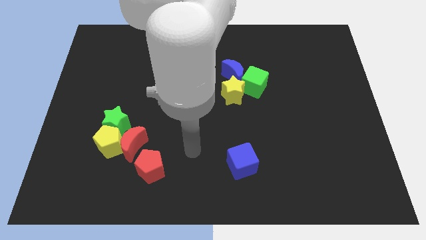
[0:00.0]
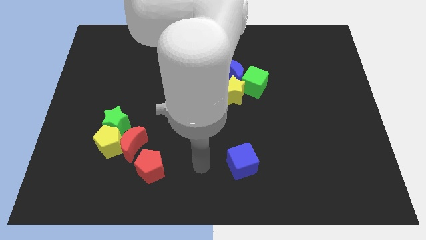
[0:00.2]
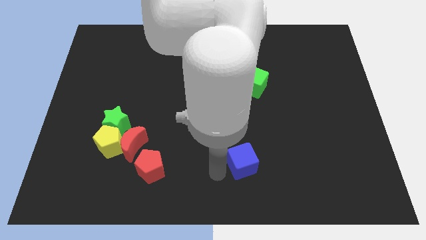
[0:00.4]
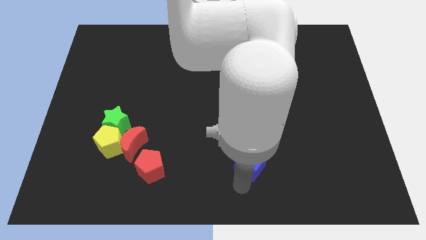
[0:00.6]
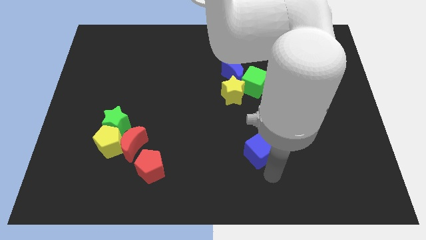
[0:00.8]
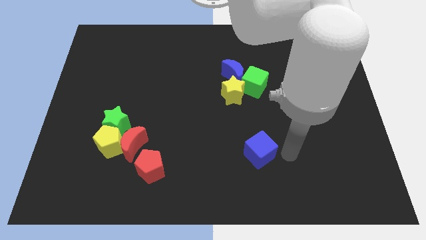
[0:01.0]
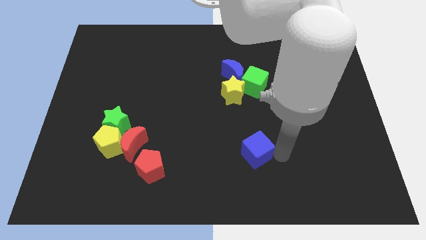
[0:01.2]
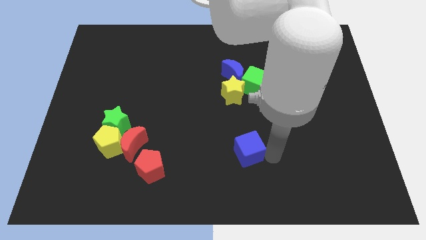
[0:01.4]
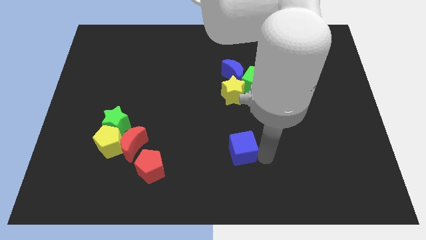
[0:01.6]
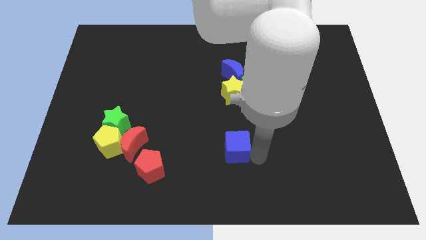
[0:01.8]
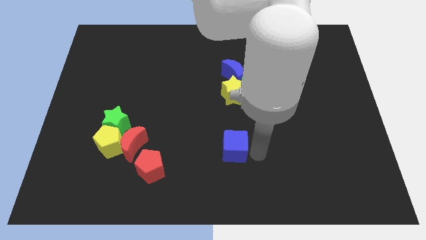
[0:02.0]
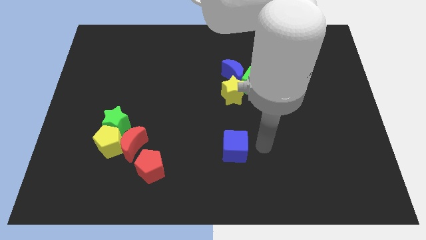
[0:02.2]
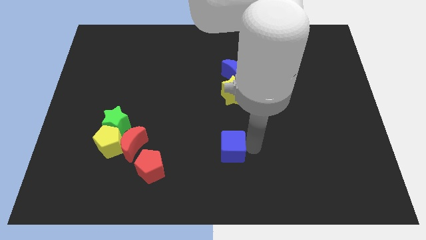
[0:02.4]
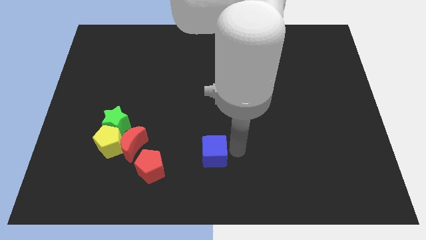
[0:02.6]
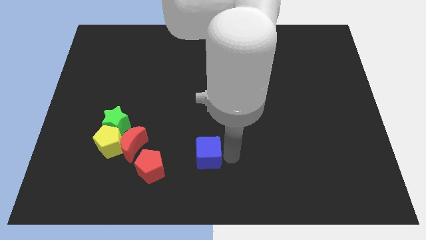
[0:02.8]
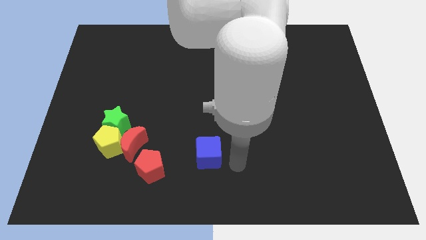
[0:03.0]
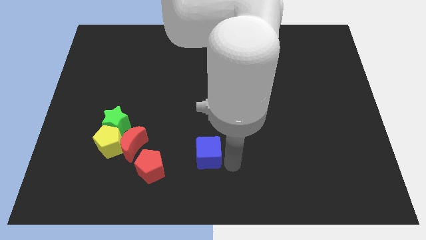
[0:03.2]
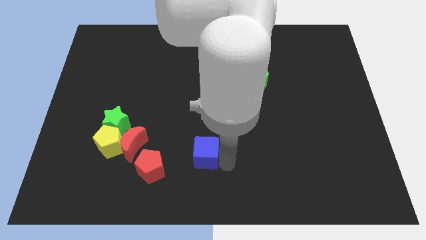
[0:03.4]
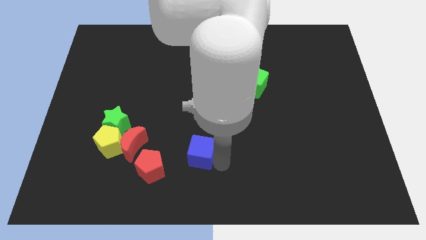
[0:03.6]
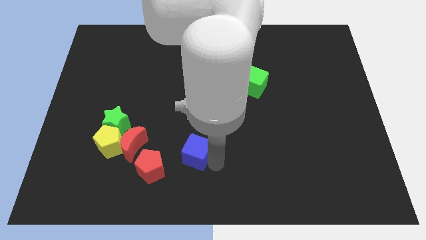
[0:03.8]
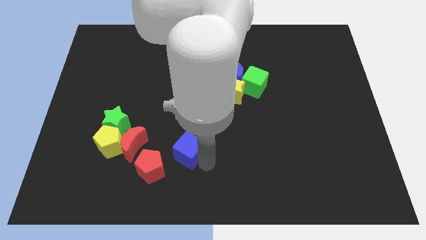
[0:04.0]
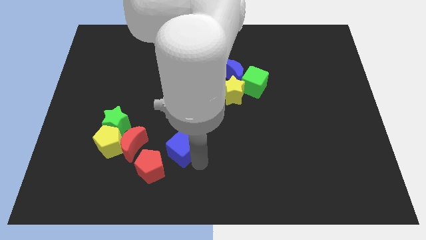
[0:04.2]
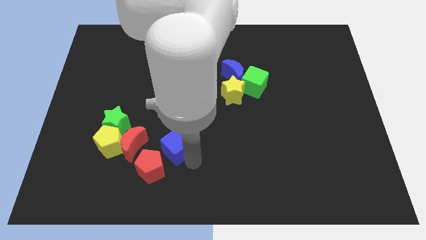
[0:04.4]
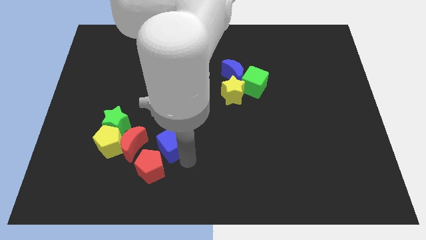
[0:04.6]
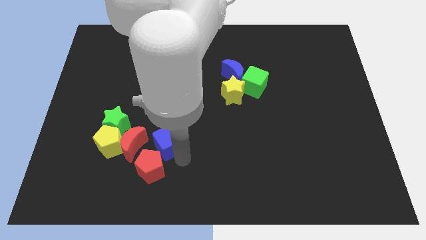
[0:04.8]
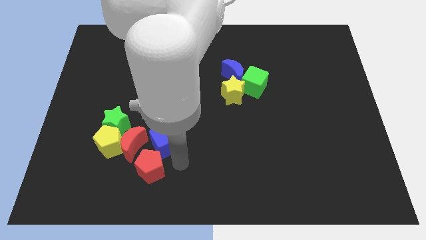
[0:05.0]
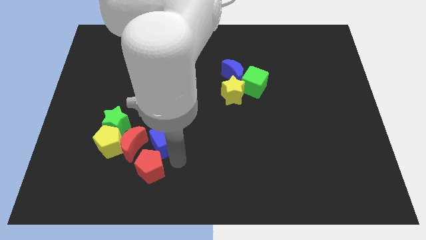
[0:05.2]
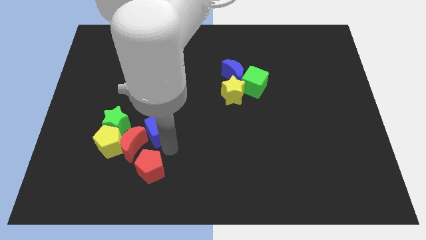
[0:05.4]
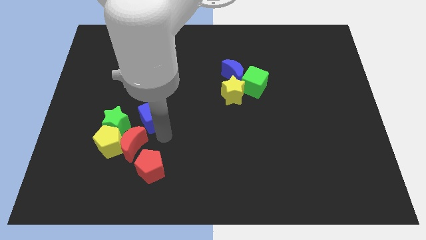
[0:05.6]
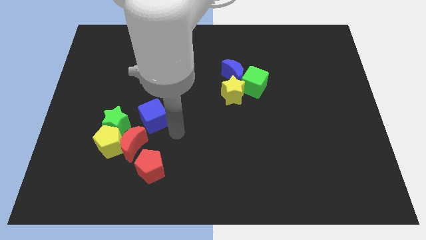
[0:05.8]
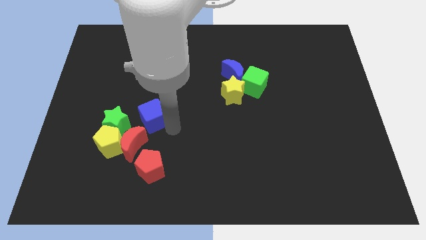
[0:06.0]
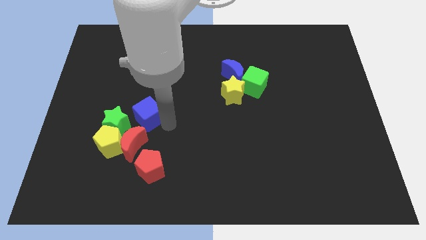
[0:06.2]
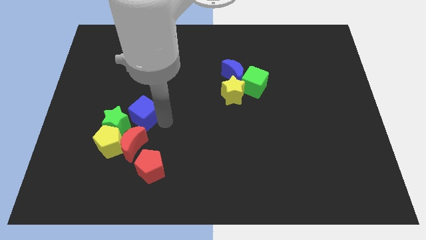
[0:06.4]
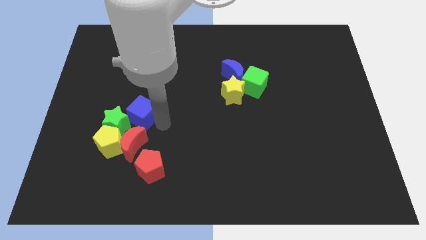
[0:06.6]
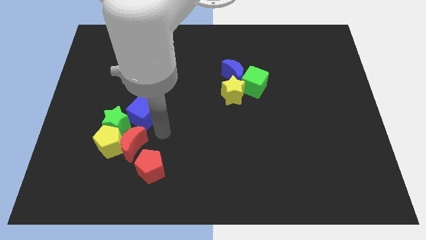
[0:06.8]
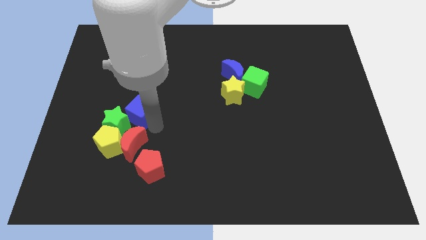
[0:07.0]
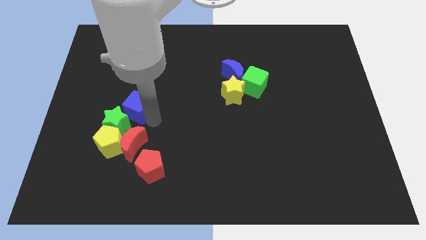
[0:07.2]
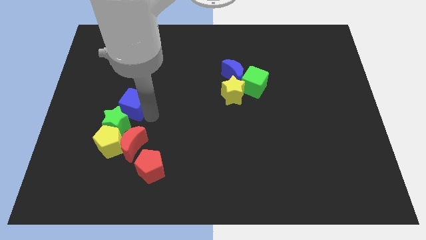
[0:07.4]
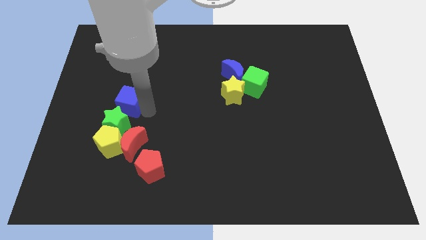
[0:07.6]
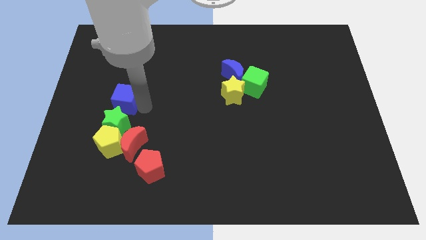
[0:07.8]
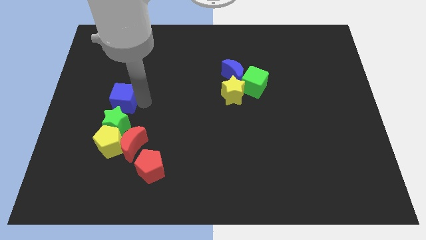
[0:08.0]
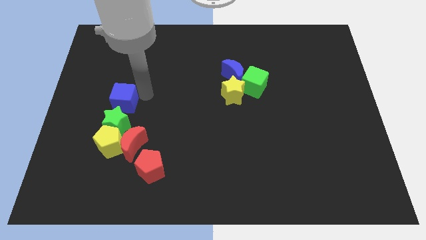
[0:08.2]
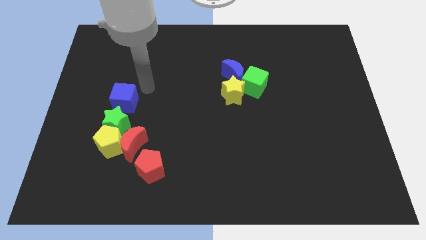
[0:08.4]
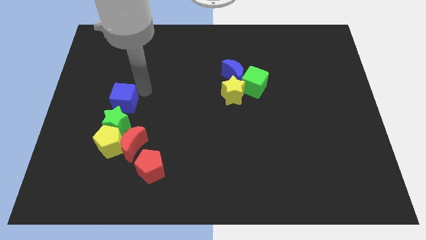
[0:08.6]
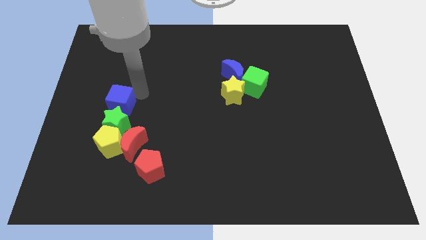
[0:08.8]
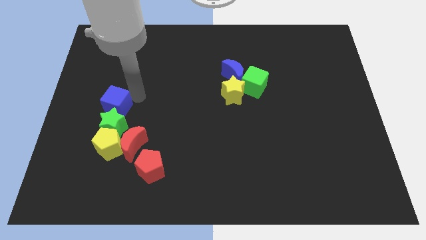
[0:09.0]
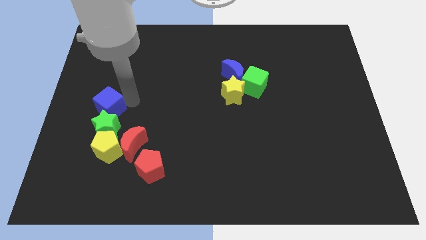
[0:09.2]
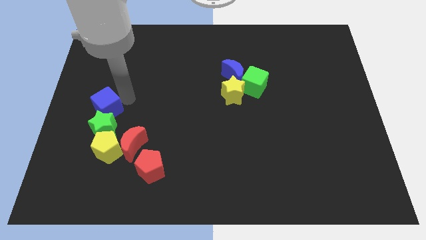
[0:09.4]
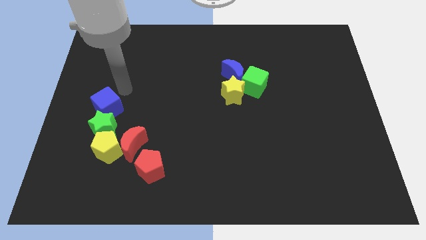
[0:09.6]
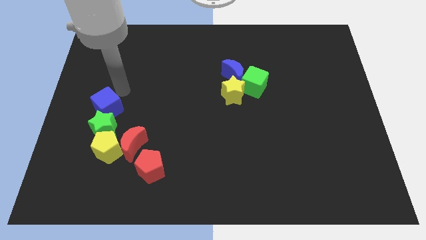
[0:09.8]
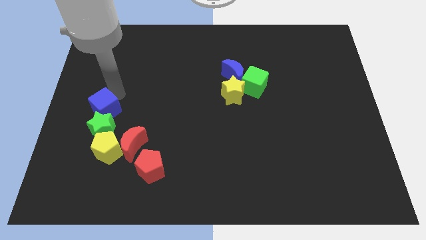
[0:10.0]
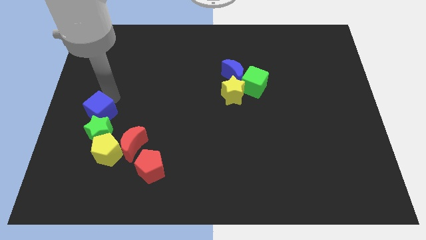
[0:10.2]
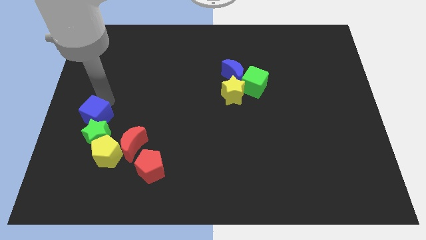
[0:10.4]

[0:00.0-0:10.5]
move the blue cube to the top left of the yellow pentagon

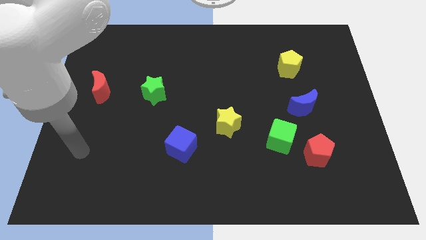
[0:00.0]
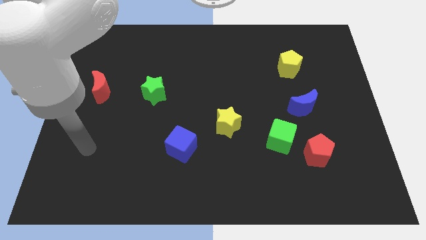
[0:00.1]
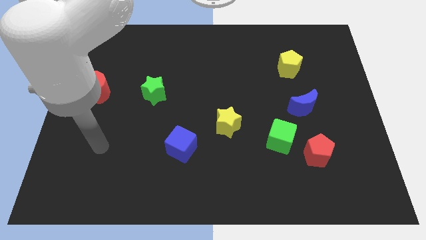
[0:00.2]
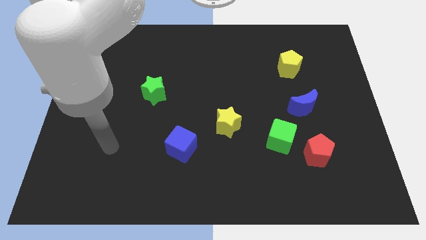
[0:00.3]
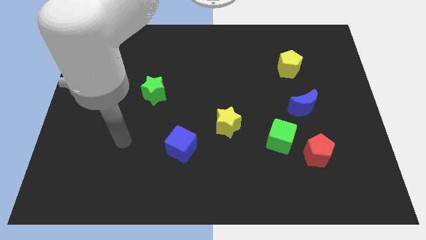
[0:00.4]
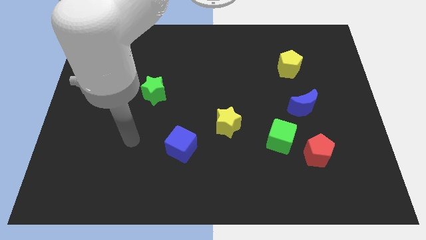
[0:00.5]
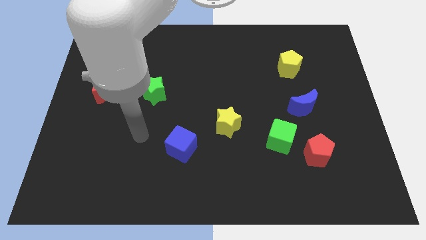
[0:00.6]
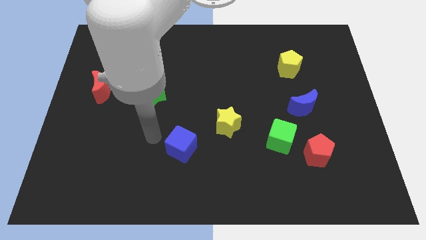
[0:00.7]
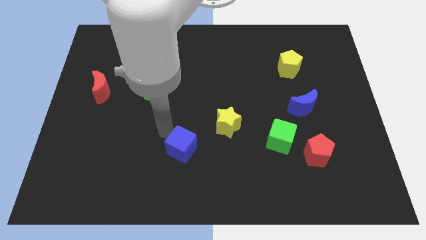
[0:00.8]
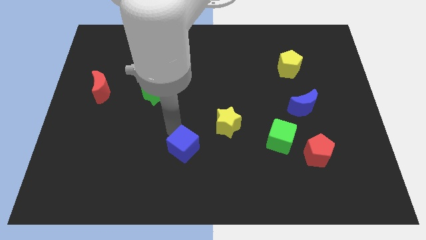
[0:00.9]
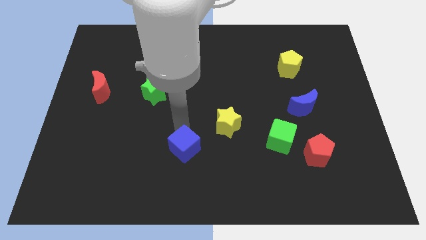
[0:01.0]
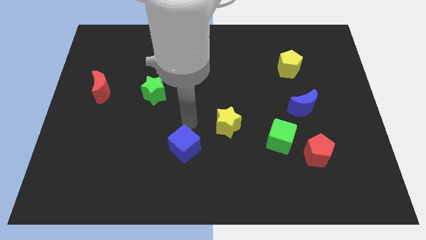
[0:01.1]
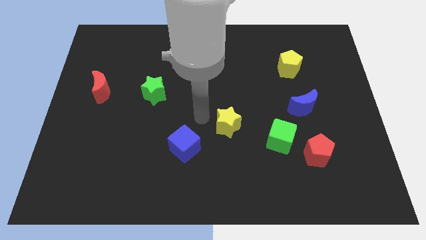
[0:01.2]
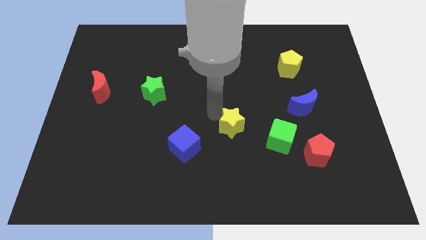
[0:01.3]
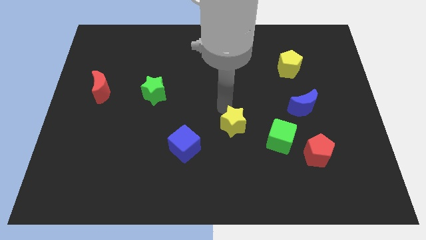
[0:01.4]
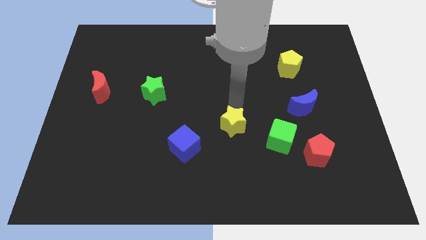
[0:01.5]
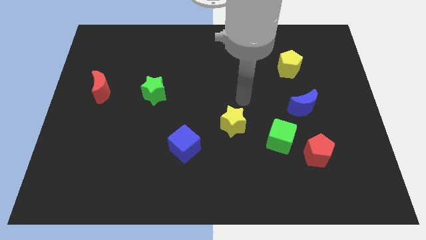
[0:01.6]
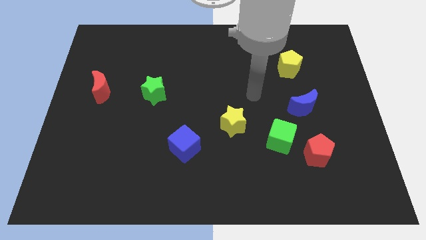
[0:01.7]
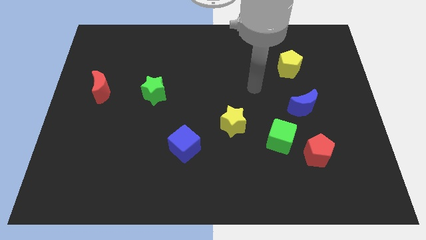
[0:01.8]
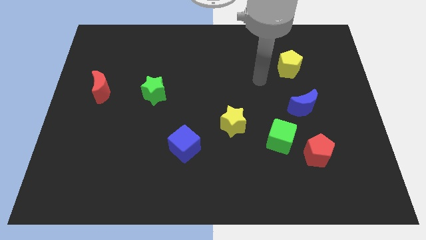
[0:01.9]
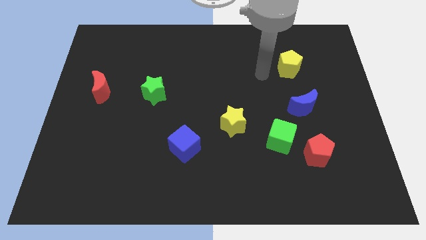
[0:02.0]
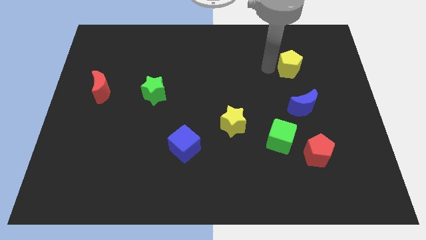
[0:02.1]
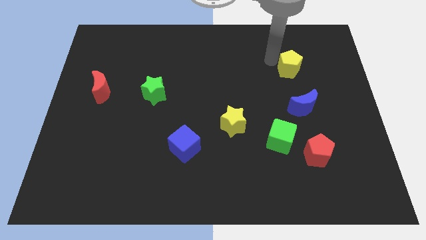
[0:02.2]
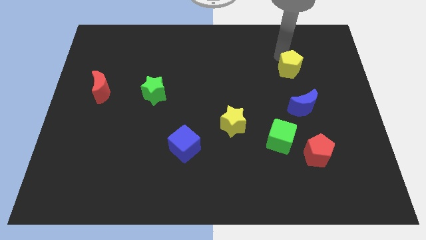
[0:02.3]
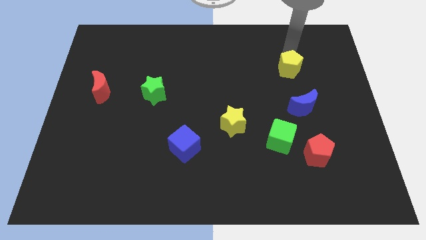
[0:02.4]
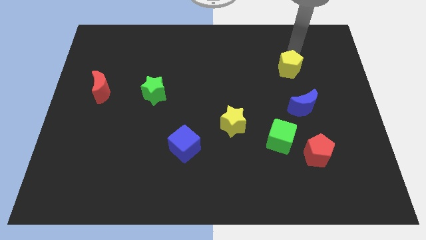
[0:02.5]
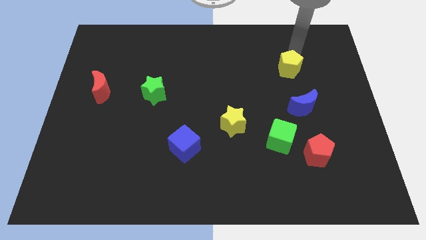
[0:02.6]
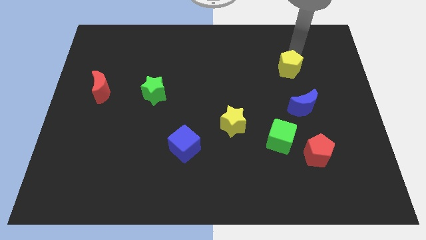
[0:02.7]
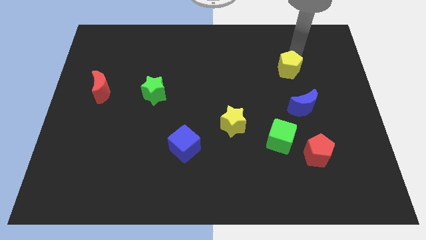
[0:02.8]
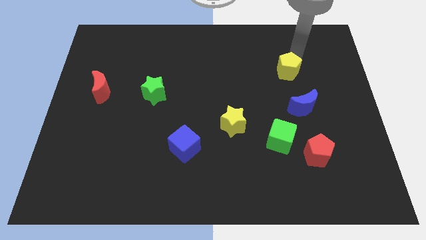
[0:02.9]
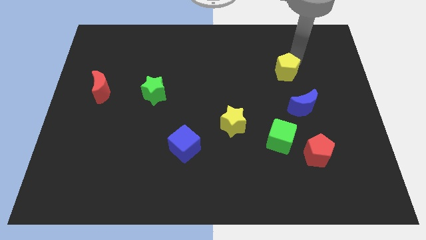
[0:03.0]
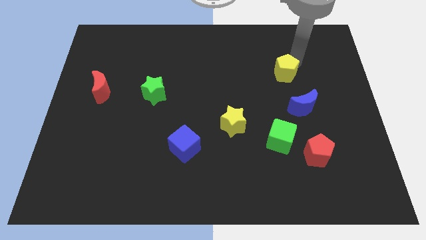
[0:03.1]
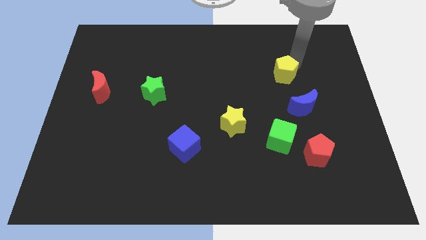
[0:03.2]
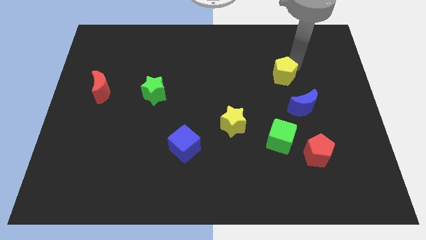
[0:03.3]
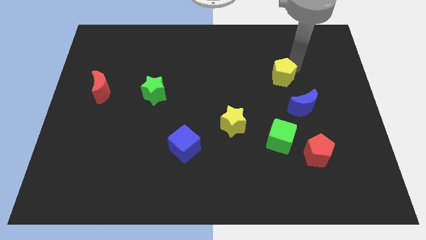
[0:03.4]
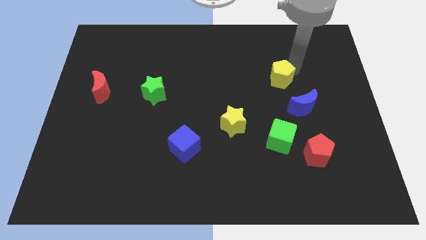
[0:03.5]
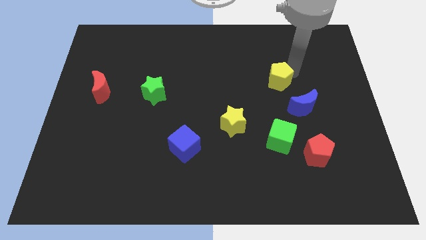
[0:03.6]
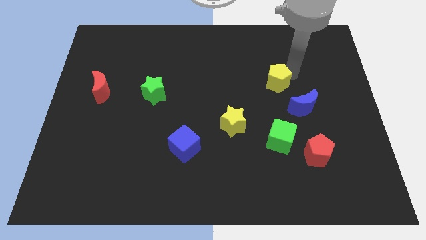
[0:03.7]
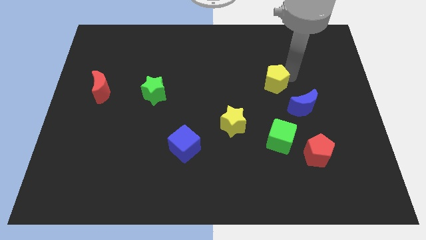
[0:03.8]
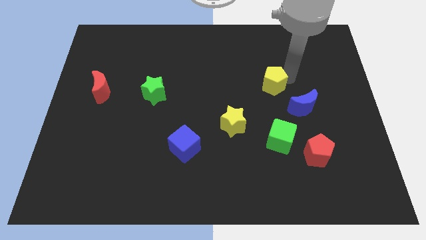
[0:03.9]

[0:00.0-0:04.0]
put the yellow pentagon above the green cube
